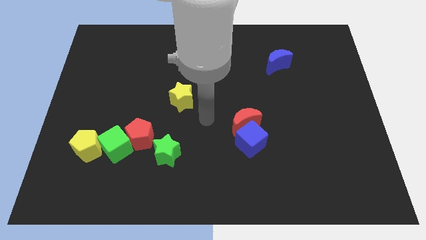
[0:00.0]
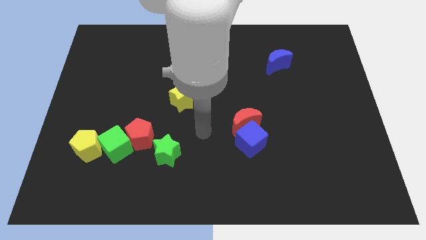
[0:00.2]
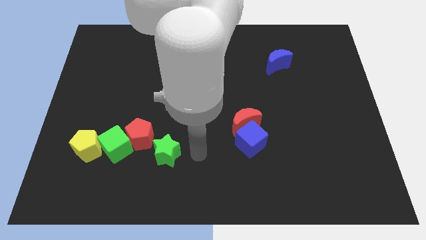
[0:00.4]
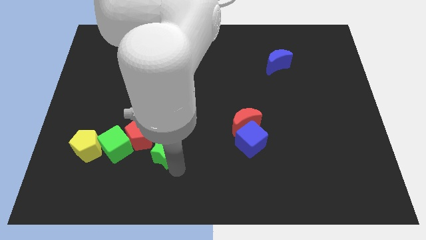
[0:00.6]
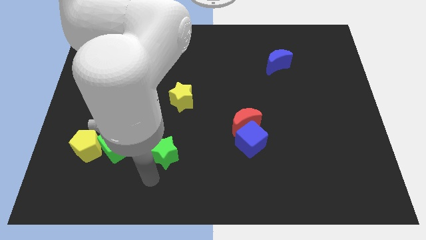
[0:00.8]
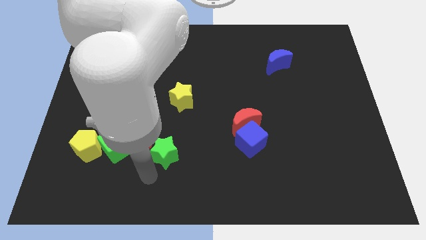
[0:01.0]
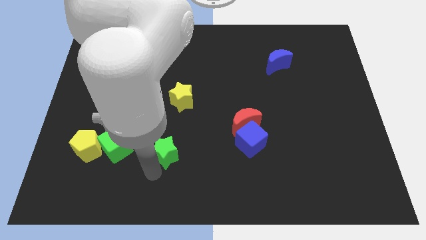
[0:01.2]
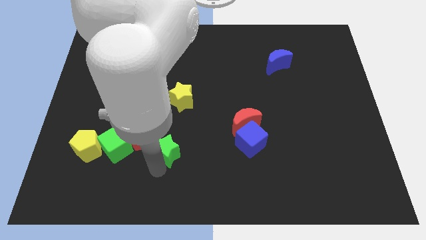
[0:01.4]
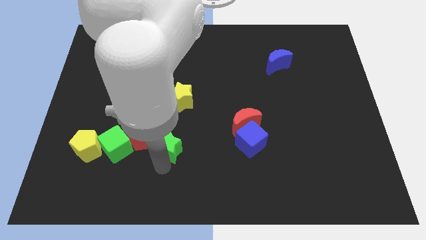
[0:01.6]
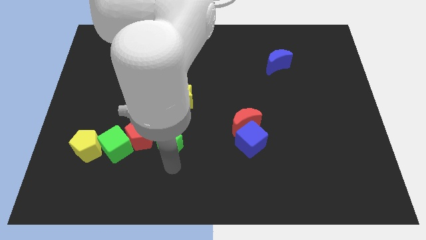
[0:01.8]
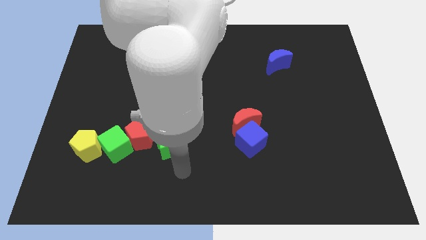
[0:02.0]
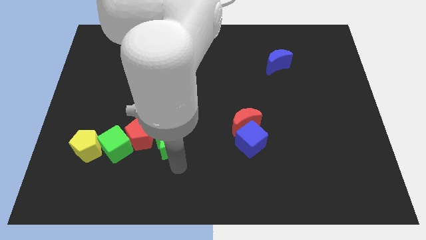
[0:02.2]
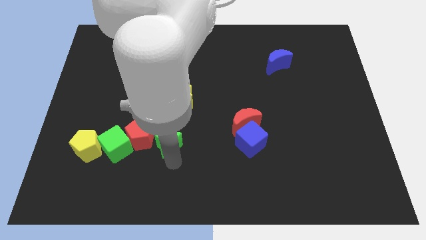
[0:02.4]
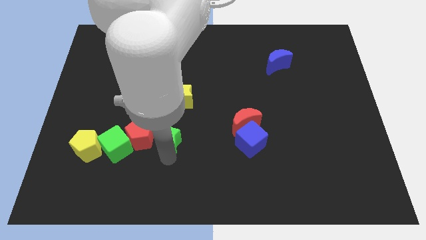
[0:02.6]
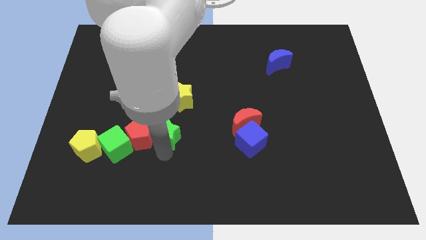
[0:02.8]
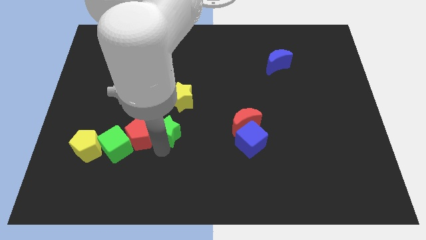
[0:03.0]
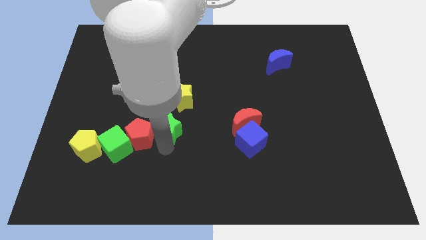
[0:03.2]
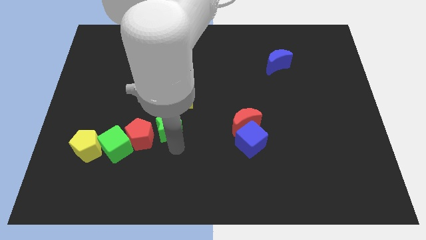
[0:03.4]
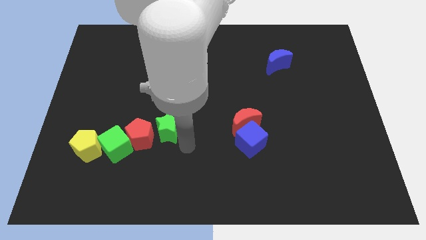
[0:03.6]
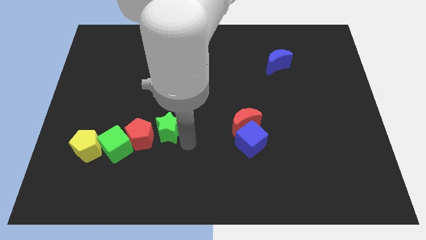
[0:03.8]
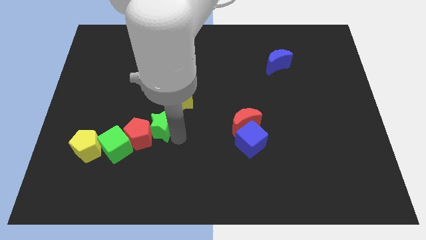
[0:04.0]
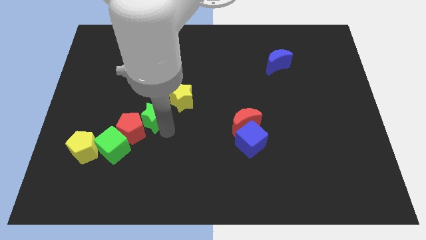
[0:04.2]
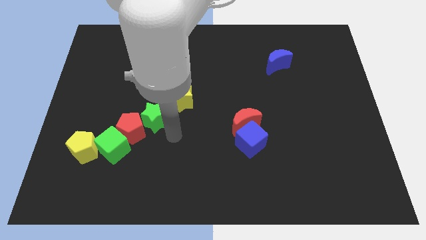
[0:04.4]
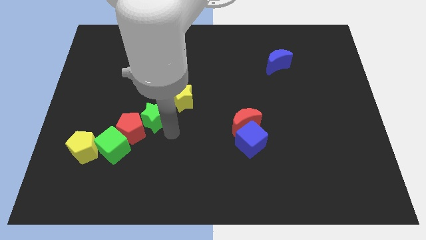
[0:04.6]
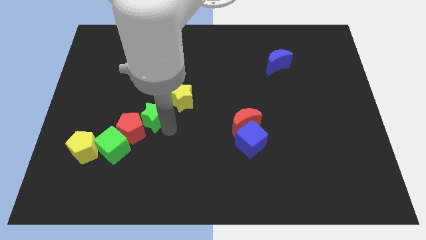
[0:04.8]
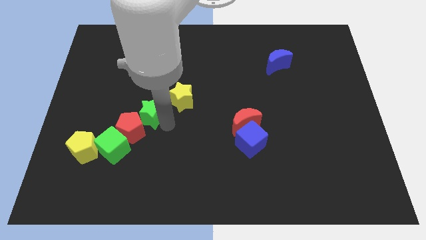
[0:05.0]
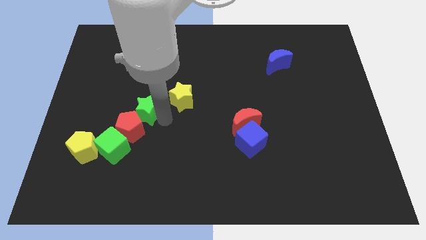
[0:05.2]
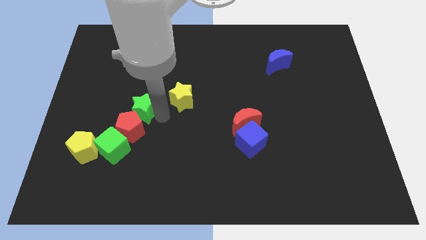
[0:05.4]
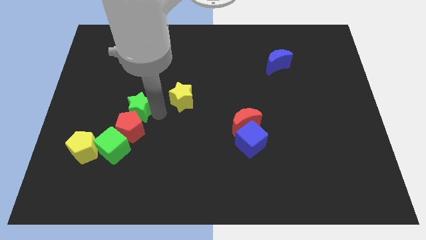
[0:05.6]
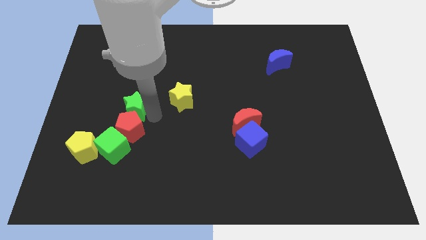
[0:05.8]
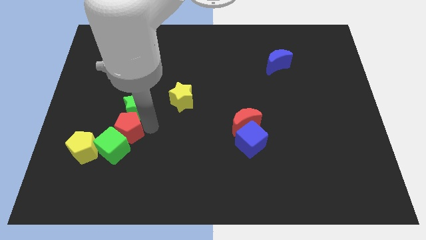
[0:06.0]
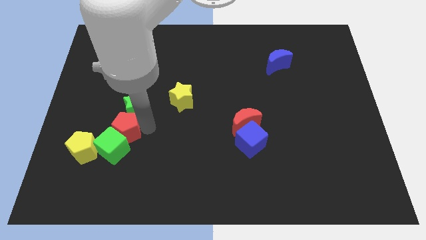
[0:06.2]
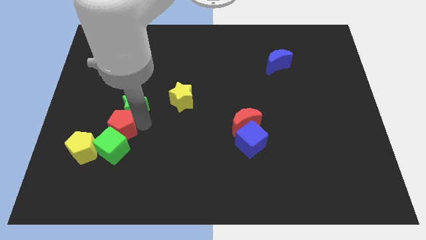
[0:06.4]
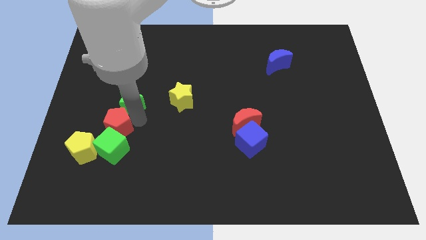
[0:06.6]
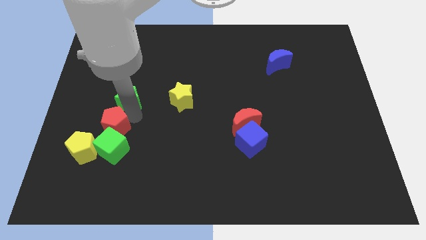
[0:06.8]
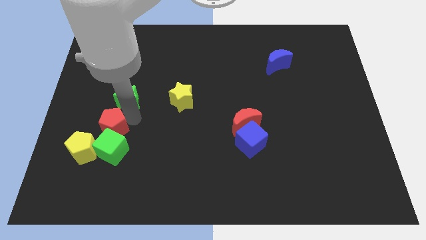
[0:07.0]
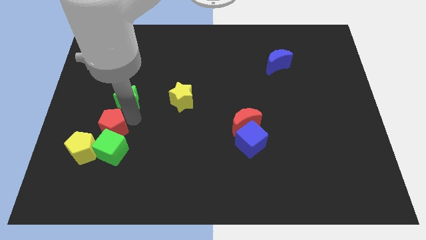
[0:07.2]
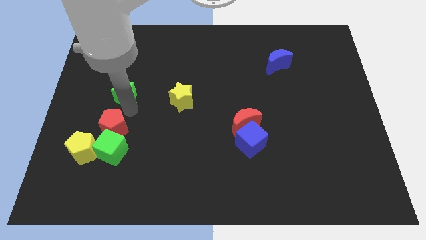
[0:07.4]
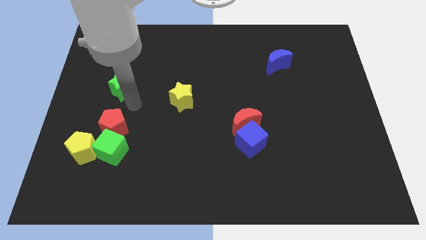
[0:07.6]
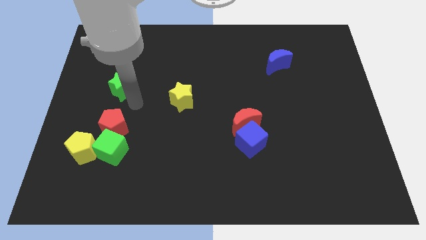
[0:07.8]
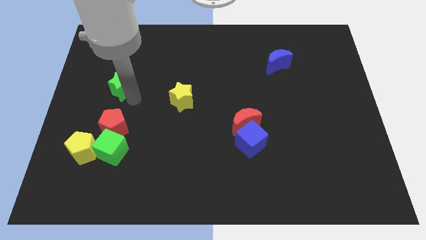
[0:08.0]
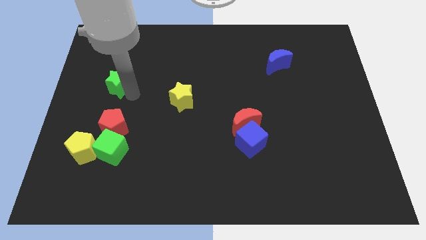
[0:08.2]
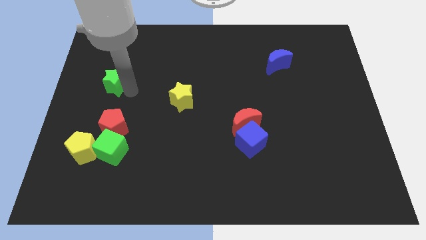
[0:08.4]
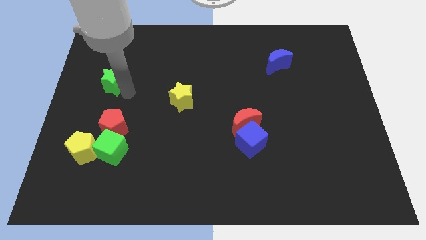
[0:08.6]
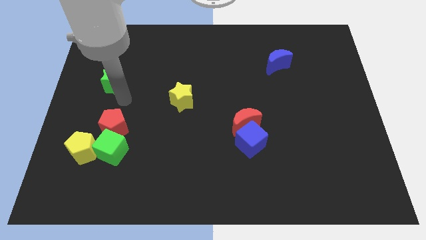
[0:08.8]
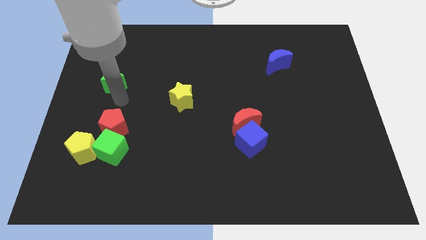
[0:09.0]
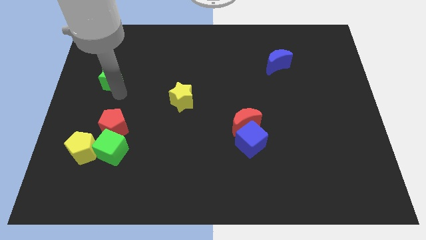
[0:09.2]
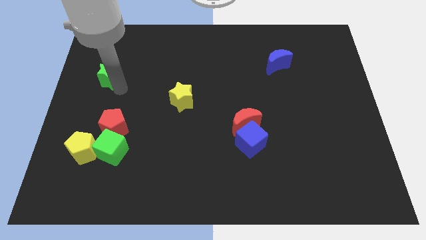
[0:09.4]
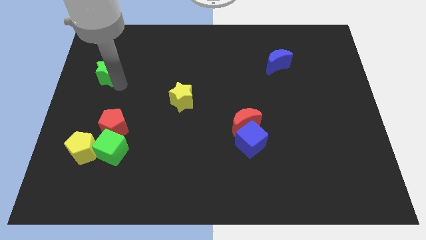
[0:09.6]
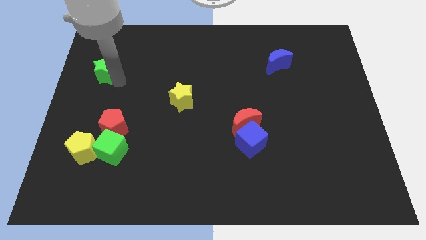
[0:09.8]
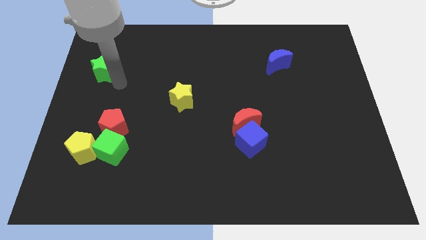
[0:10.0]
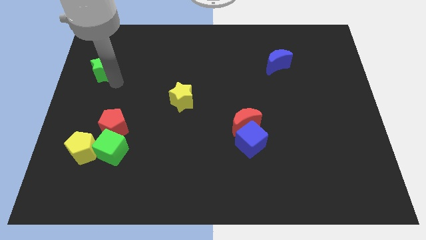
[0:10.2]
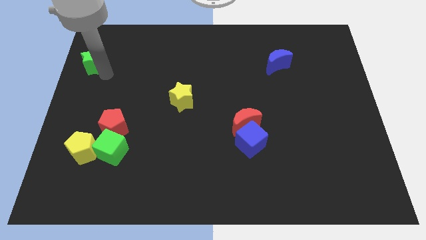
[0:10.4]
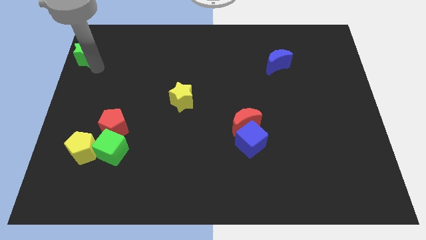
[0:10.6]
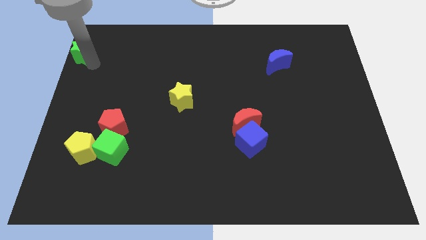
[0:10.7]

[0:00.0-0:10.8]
move the green star to the top left of the board

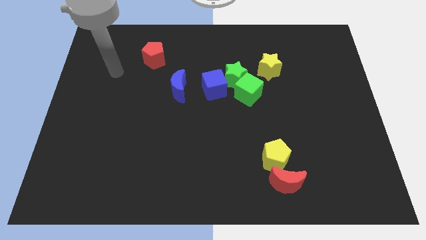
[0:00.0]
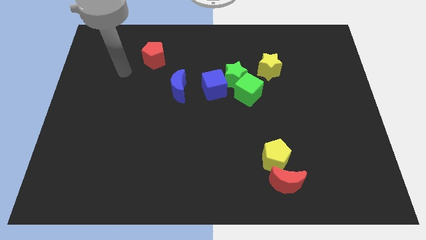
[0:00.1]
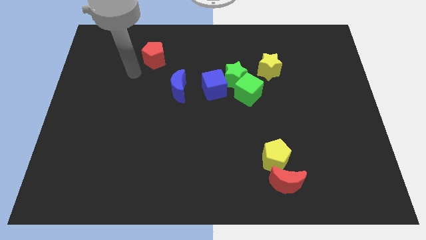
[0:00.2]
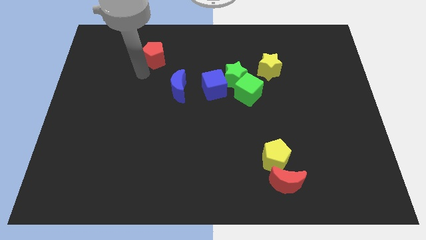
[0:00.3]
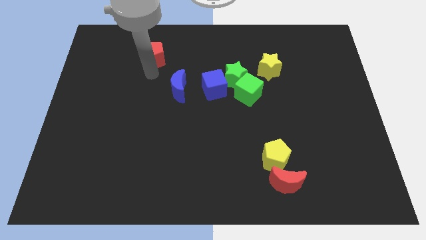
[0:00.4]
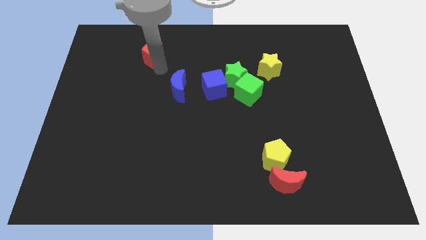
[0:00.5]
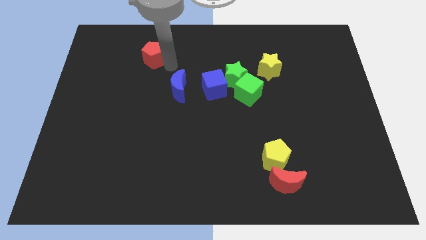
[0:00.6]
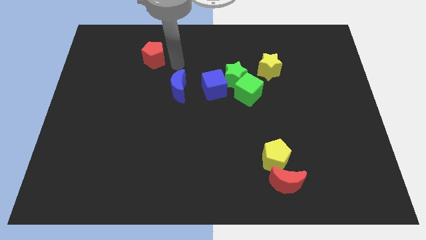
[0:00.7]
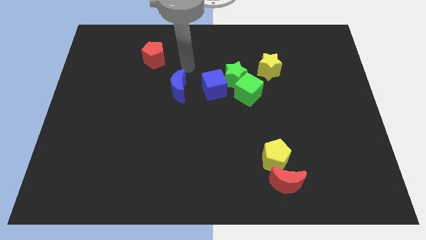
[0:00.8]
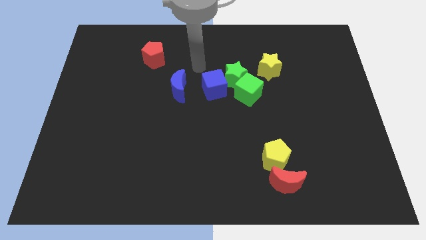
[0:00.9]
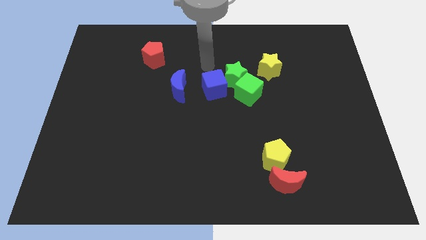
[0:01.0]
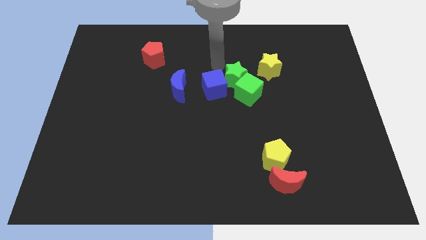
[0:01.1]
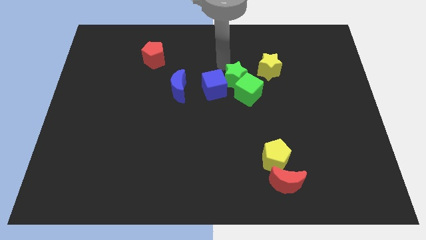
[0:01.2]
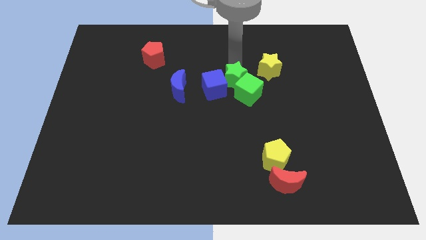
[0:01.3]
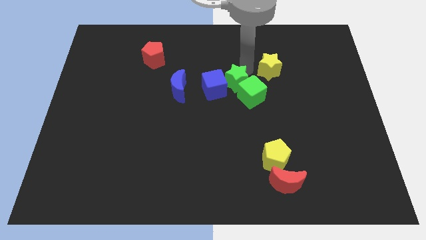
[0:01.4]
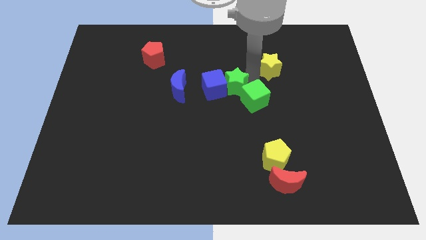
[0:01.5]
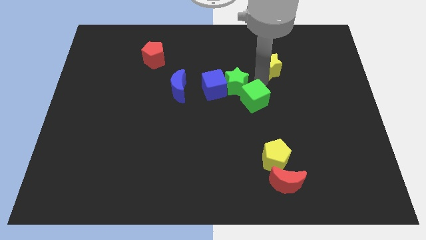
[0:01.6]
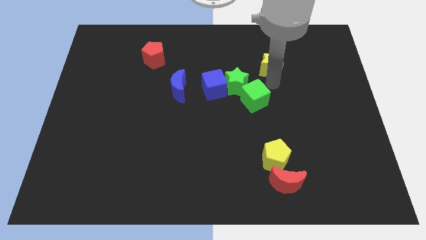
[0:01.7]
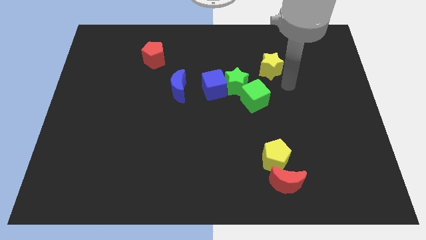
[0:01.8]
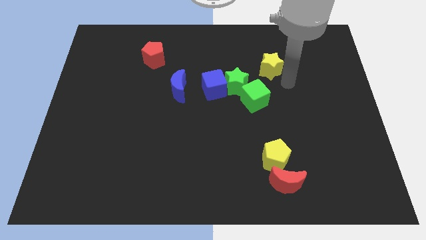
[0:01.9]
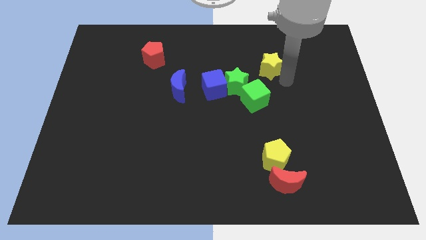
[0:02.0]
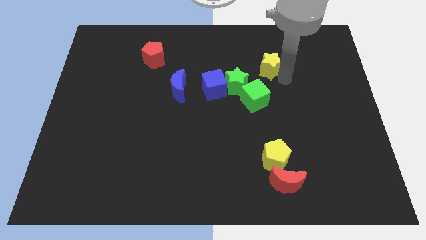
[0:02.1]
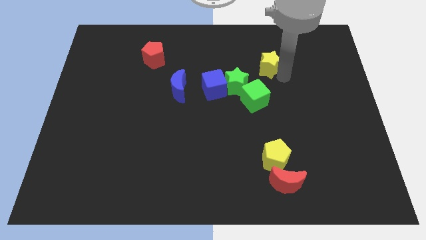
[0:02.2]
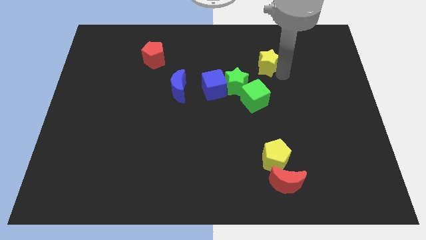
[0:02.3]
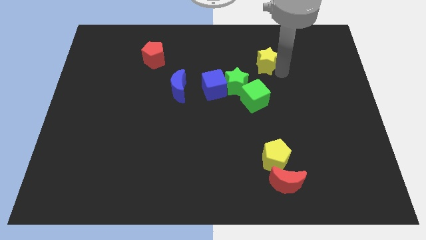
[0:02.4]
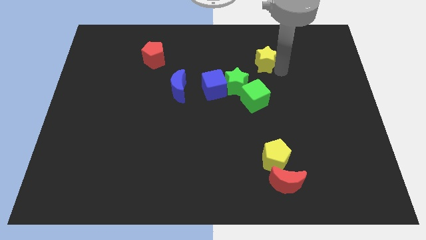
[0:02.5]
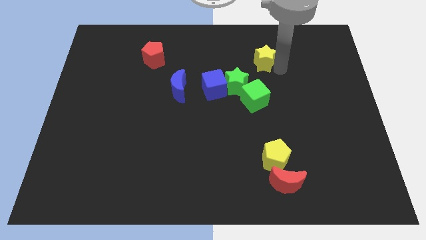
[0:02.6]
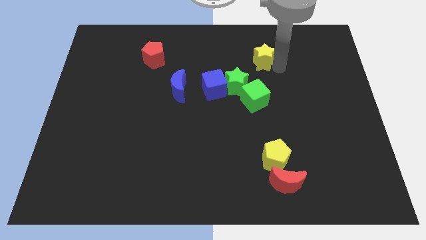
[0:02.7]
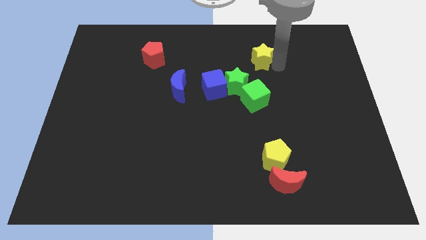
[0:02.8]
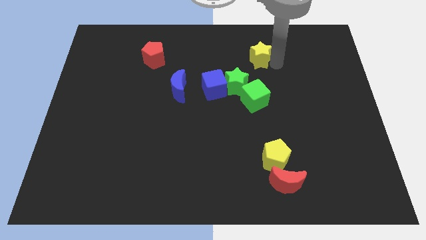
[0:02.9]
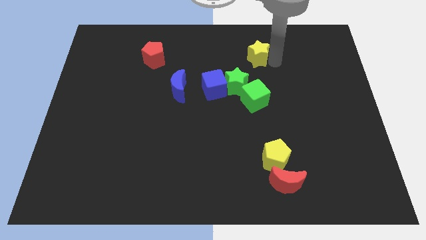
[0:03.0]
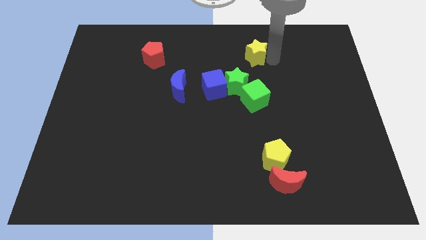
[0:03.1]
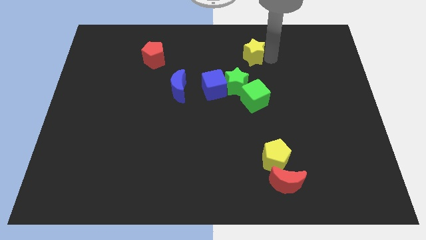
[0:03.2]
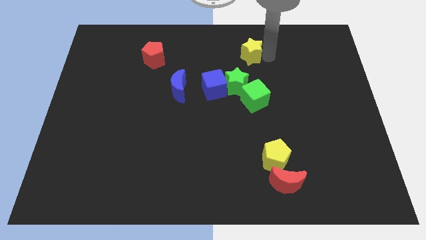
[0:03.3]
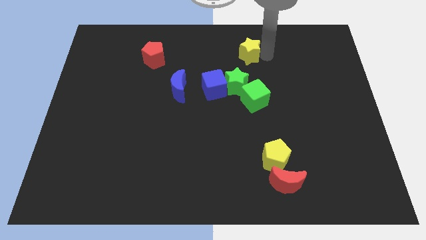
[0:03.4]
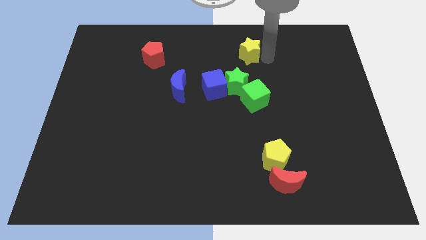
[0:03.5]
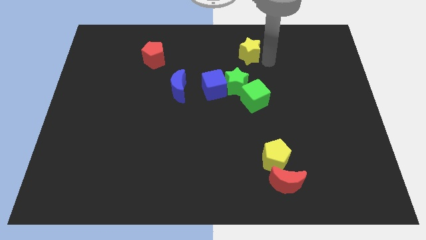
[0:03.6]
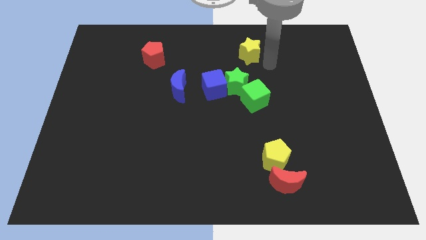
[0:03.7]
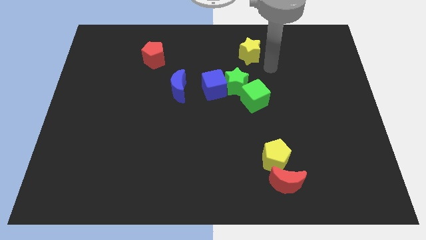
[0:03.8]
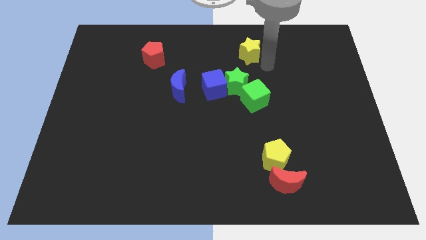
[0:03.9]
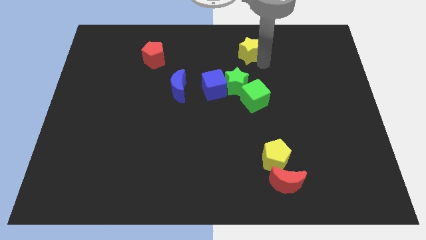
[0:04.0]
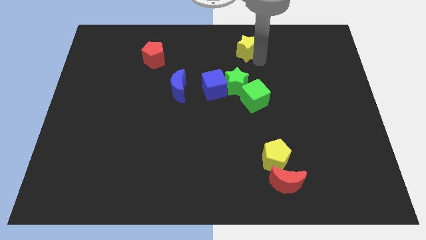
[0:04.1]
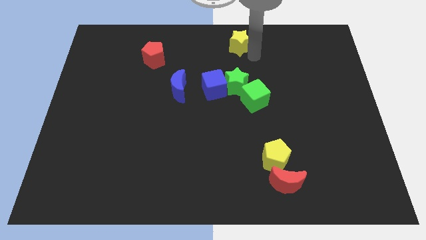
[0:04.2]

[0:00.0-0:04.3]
put the yellow star to the top
